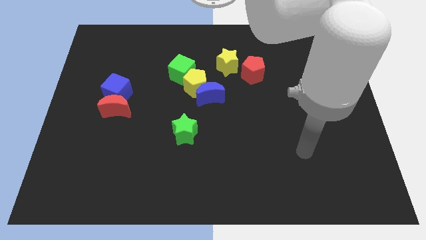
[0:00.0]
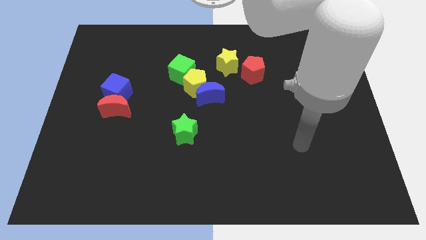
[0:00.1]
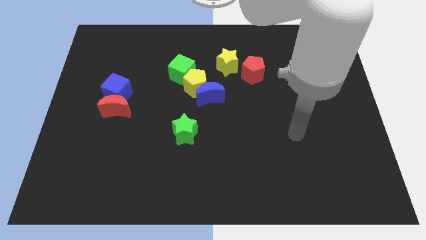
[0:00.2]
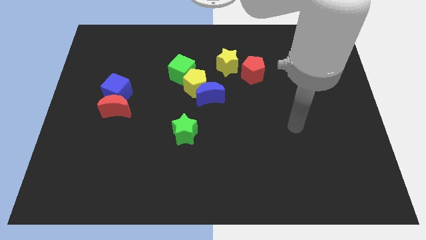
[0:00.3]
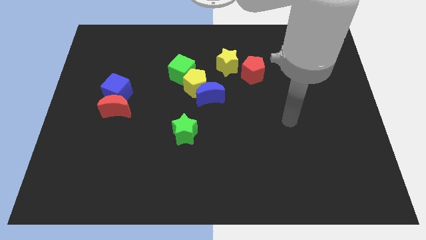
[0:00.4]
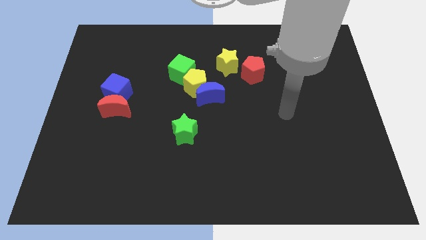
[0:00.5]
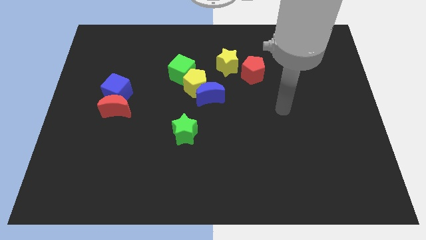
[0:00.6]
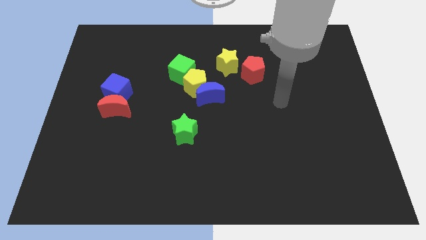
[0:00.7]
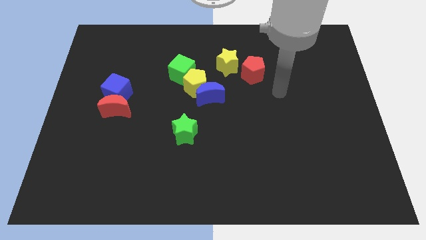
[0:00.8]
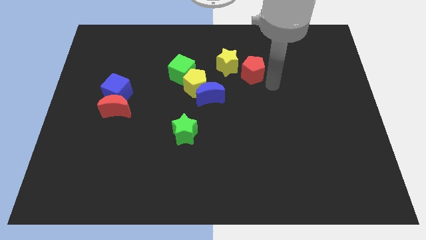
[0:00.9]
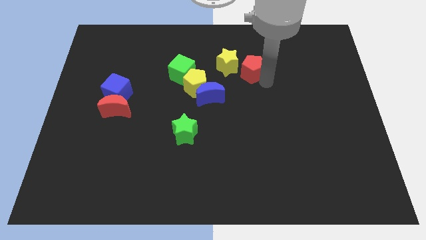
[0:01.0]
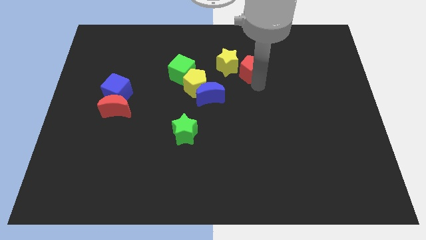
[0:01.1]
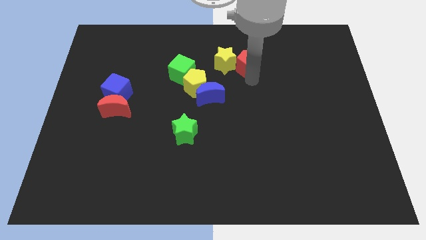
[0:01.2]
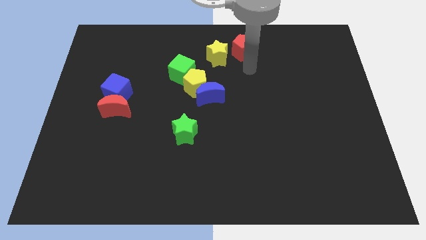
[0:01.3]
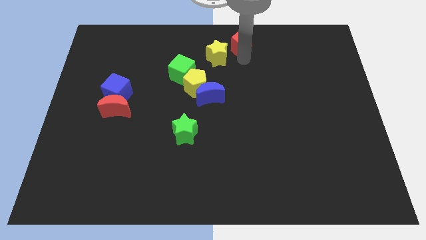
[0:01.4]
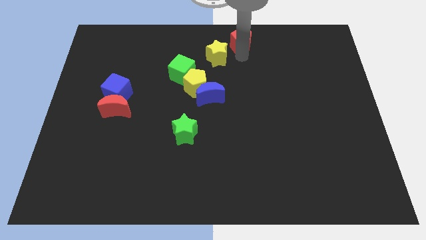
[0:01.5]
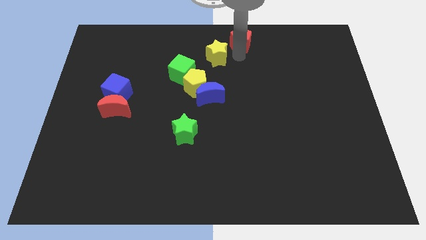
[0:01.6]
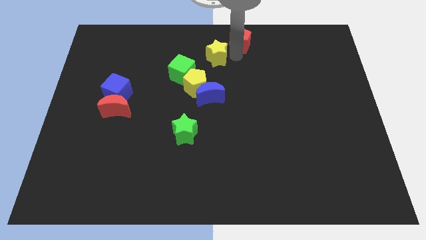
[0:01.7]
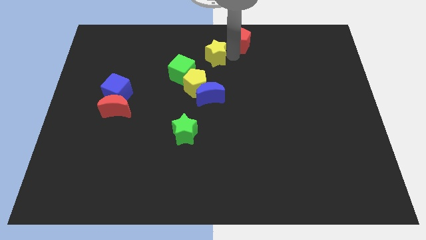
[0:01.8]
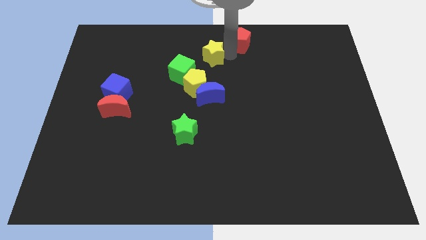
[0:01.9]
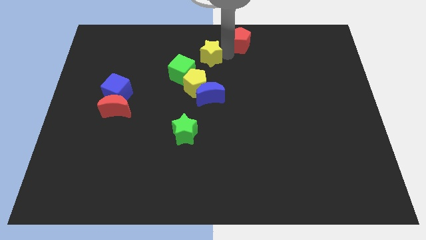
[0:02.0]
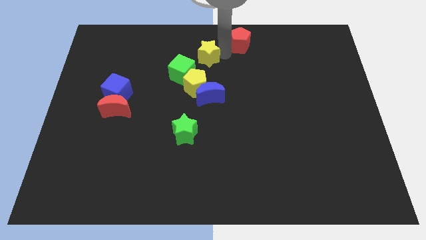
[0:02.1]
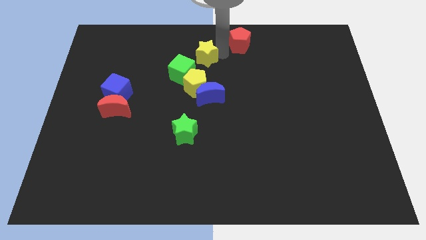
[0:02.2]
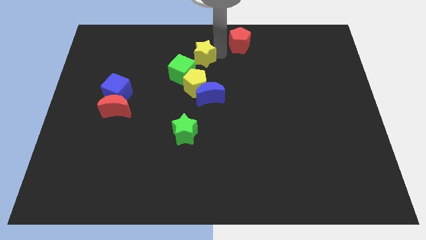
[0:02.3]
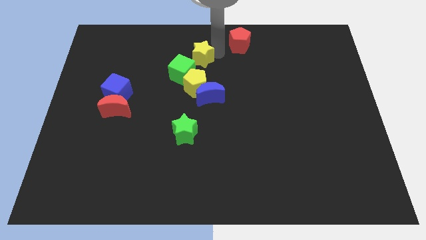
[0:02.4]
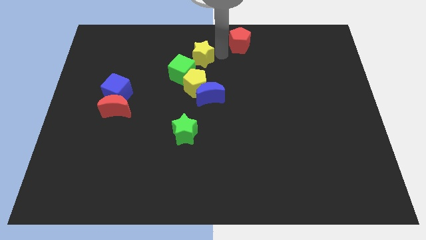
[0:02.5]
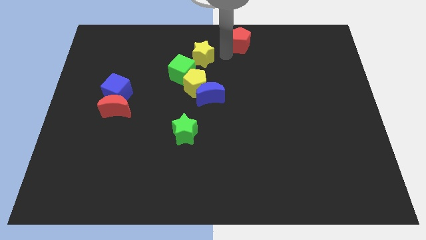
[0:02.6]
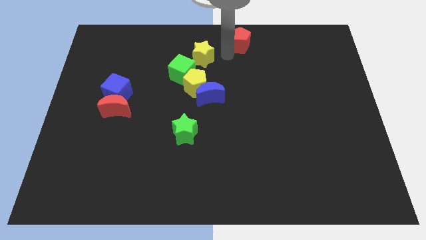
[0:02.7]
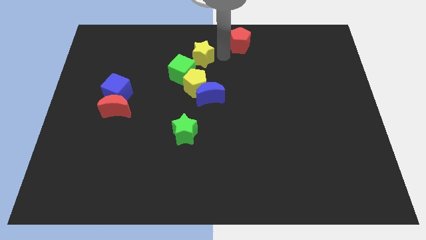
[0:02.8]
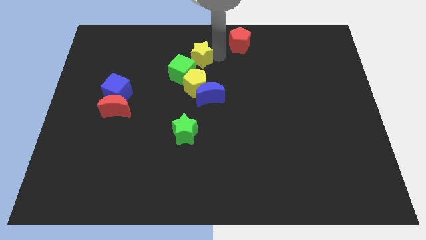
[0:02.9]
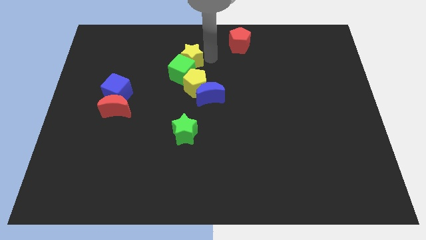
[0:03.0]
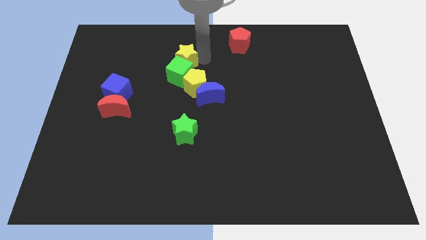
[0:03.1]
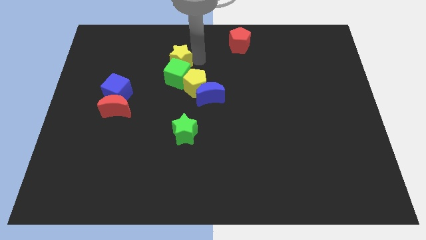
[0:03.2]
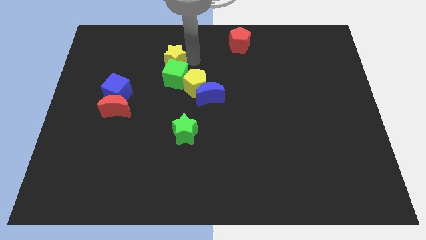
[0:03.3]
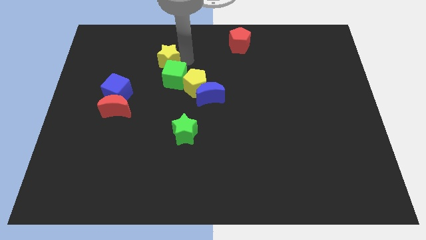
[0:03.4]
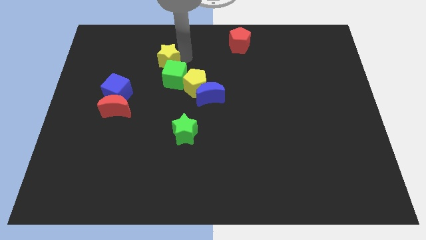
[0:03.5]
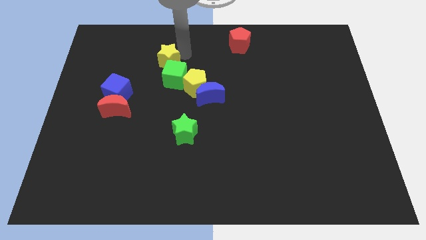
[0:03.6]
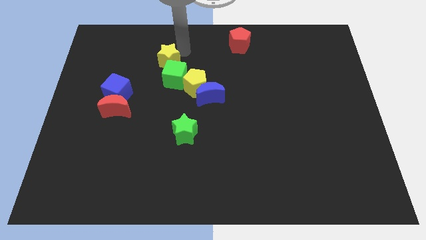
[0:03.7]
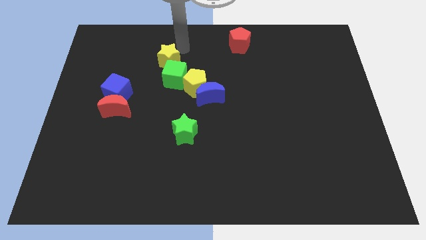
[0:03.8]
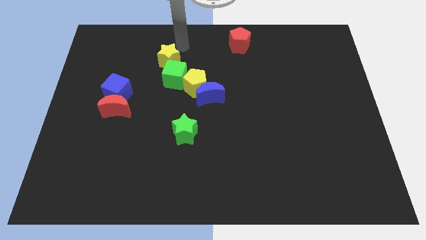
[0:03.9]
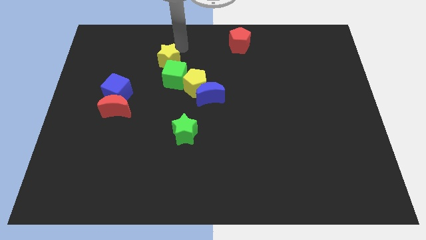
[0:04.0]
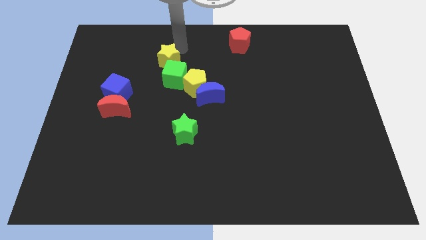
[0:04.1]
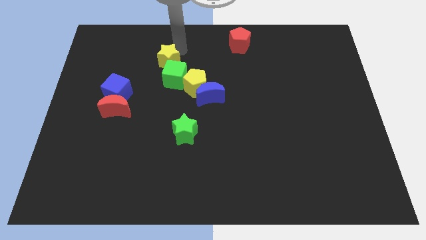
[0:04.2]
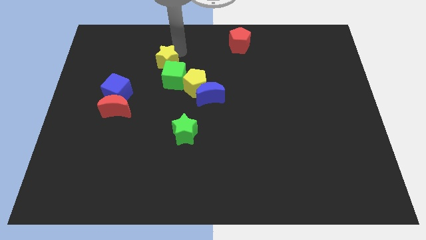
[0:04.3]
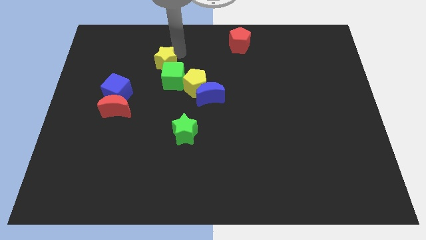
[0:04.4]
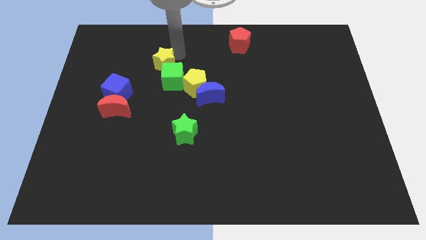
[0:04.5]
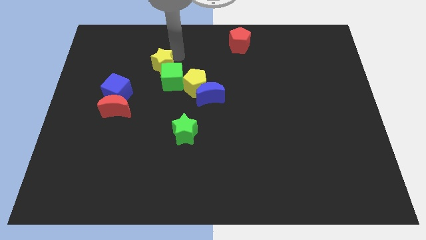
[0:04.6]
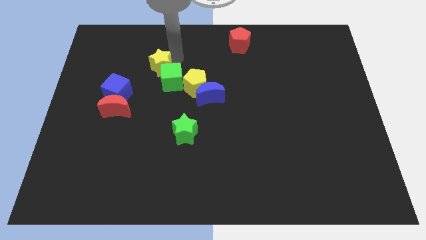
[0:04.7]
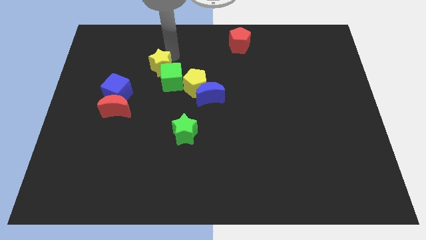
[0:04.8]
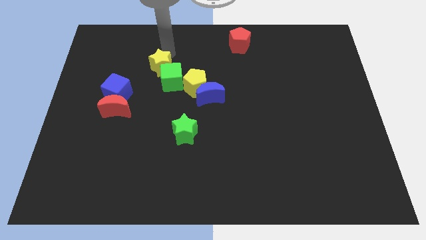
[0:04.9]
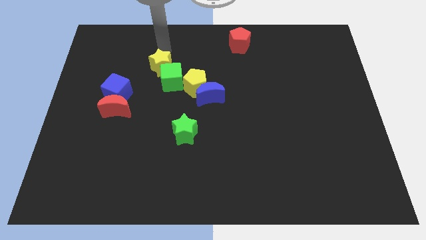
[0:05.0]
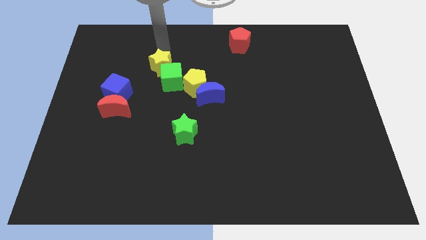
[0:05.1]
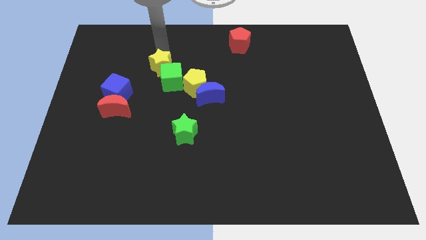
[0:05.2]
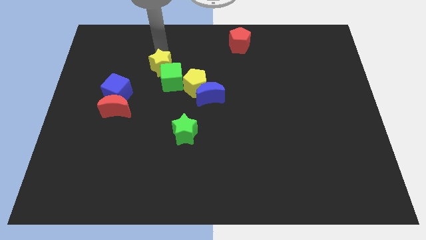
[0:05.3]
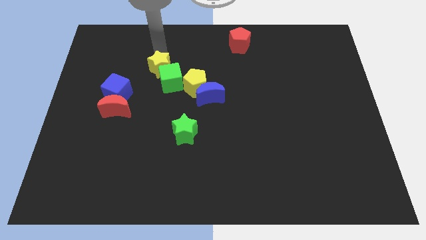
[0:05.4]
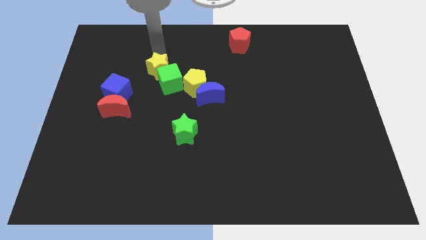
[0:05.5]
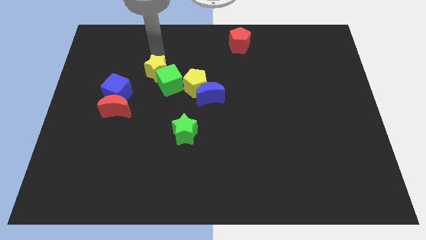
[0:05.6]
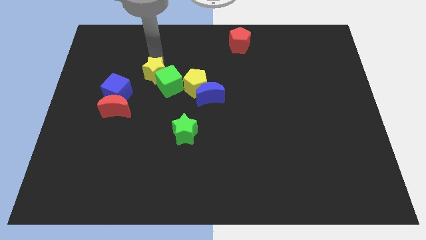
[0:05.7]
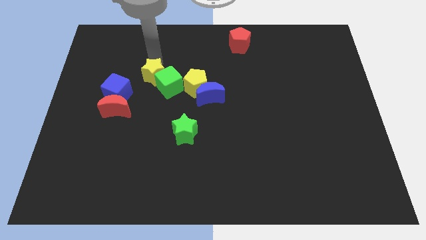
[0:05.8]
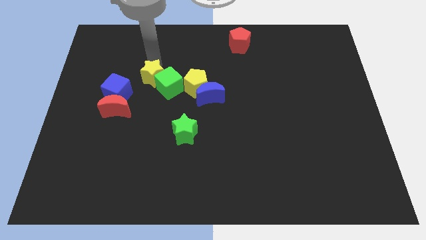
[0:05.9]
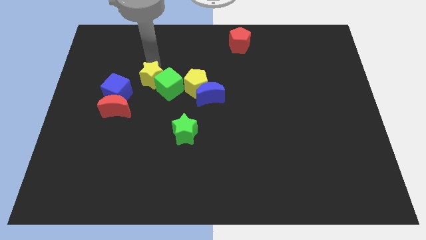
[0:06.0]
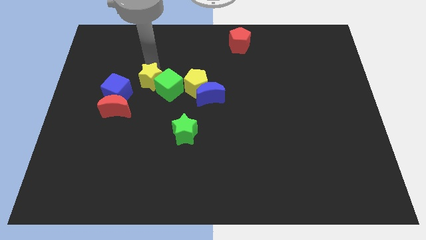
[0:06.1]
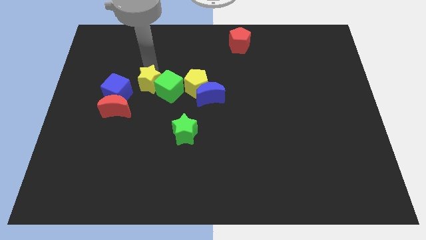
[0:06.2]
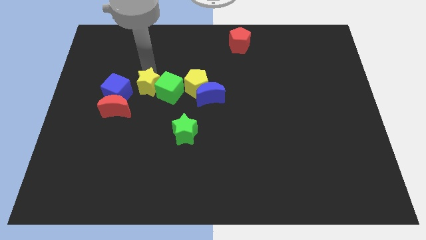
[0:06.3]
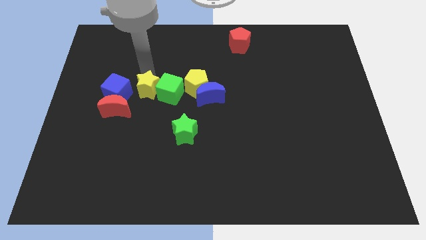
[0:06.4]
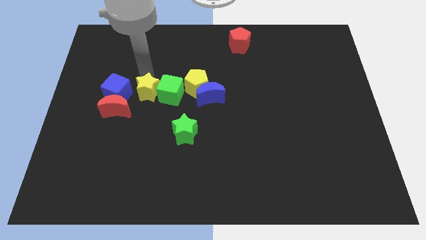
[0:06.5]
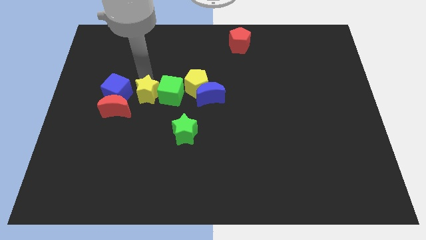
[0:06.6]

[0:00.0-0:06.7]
push the yellow star just right of the red moon
